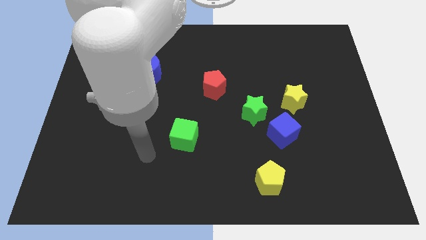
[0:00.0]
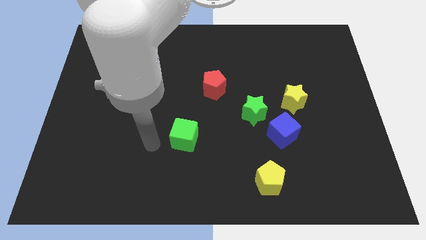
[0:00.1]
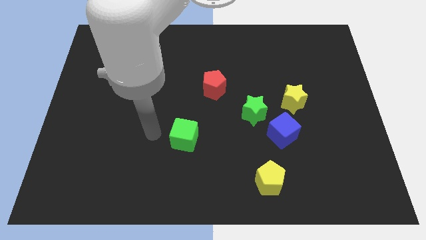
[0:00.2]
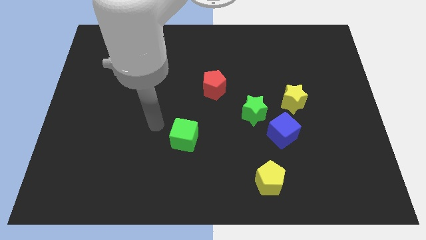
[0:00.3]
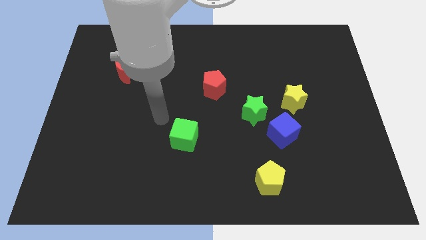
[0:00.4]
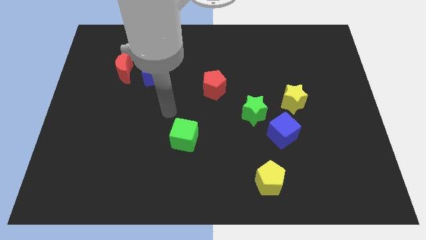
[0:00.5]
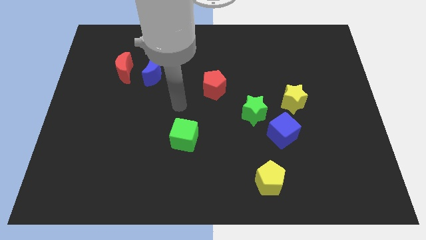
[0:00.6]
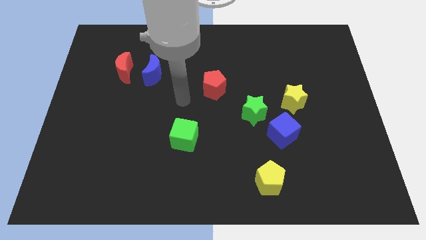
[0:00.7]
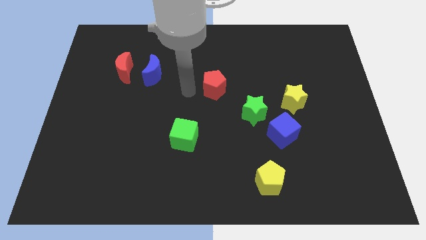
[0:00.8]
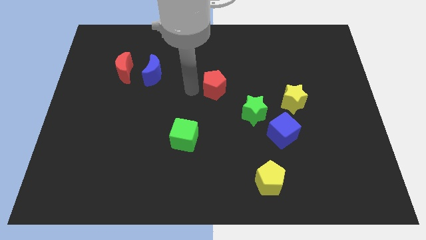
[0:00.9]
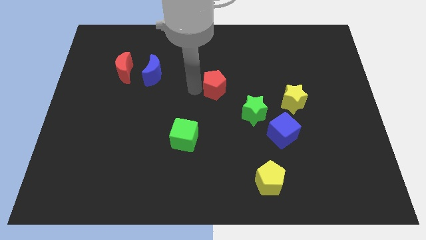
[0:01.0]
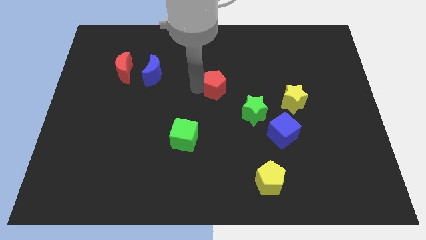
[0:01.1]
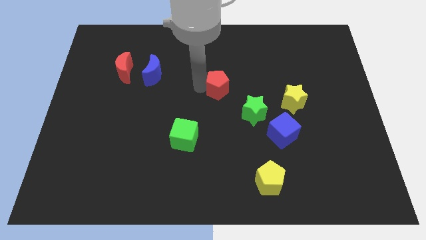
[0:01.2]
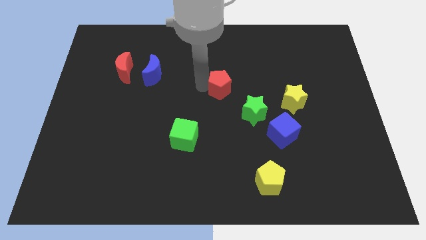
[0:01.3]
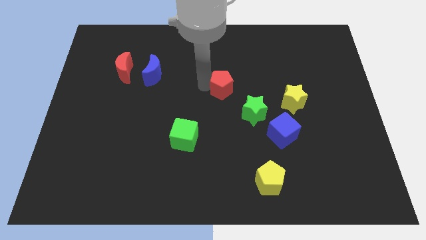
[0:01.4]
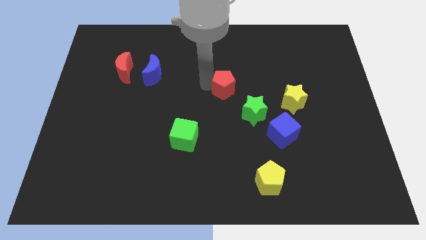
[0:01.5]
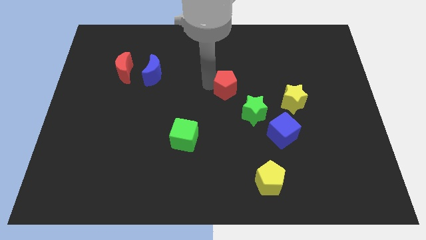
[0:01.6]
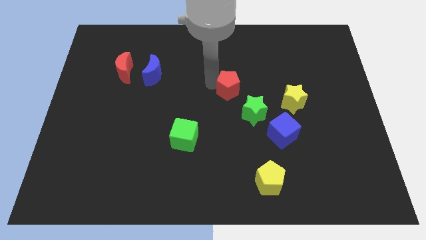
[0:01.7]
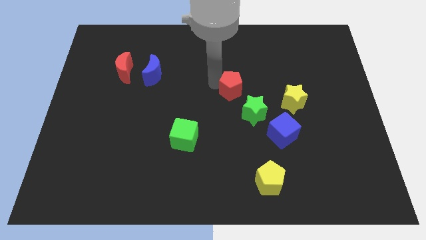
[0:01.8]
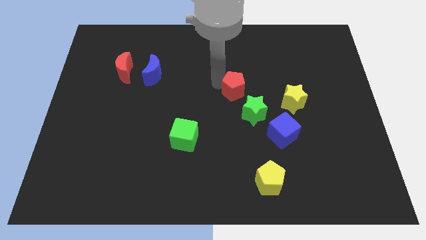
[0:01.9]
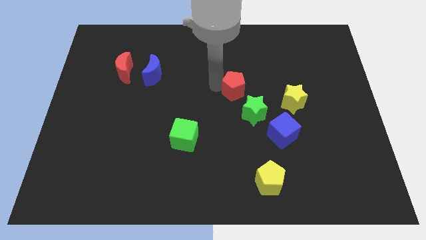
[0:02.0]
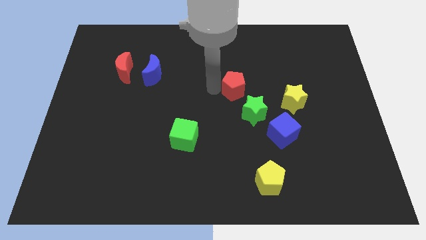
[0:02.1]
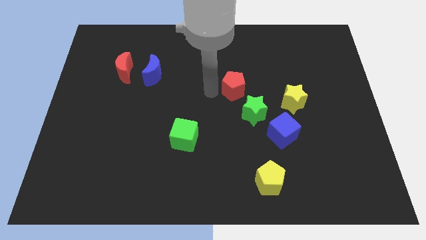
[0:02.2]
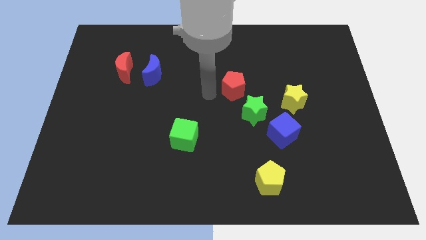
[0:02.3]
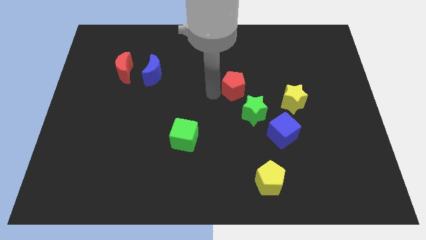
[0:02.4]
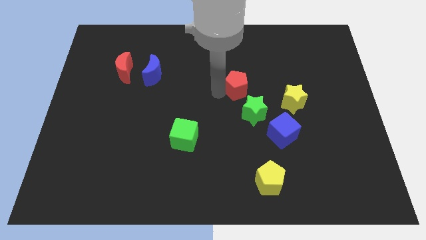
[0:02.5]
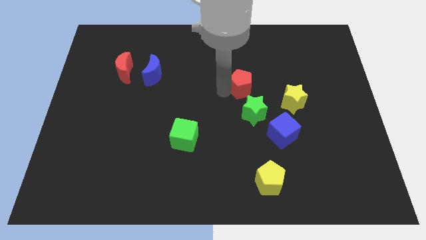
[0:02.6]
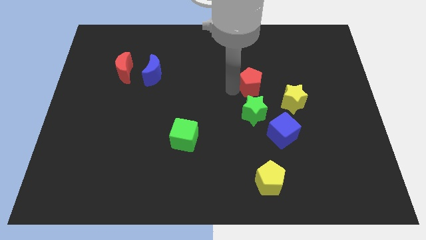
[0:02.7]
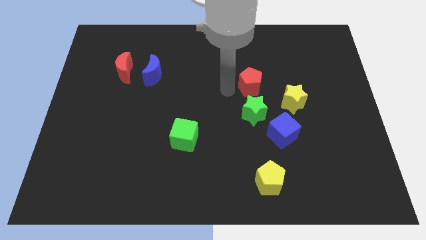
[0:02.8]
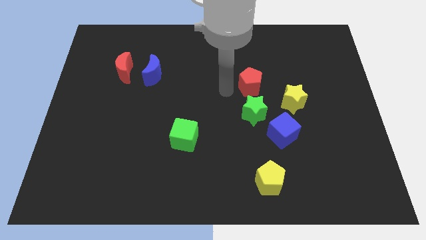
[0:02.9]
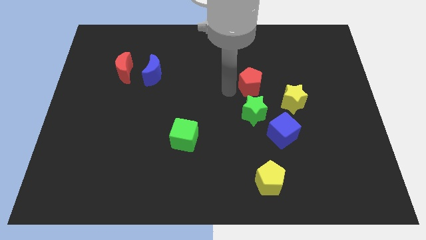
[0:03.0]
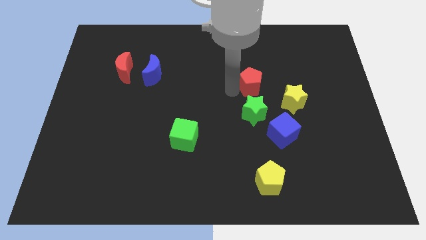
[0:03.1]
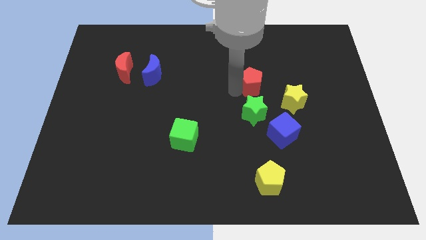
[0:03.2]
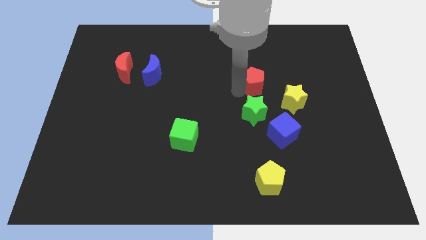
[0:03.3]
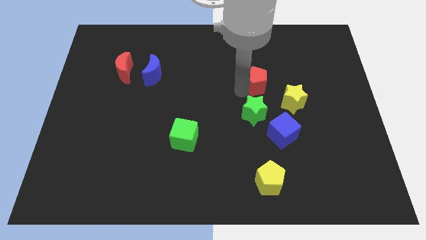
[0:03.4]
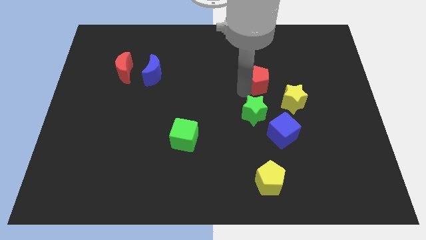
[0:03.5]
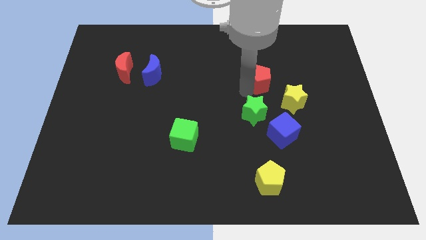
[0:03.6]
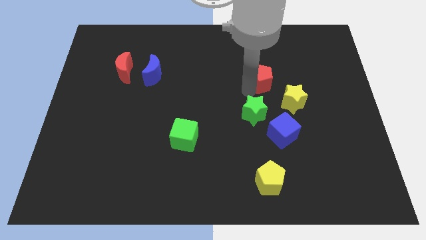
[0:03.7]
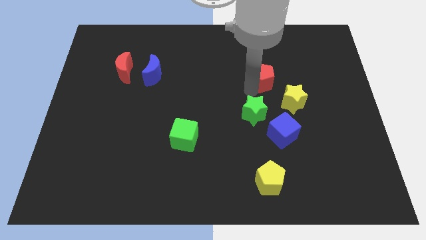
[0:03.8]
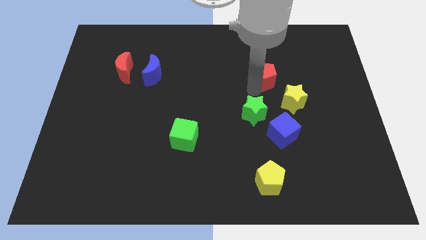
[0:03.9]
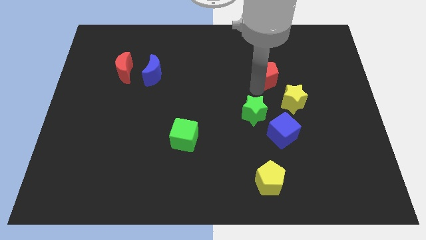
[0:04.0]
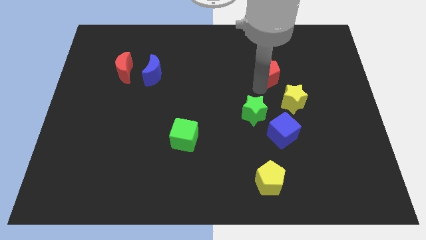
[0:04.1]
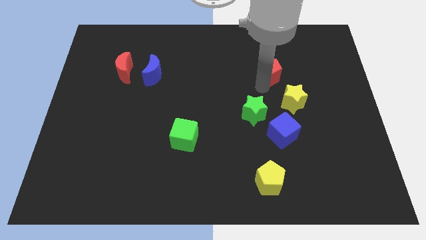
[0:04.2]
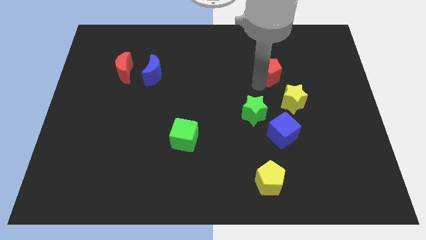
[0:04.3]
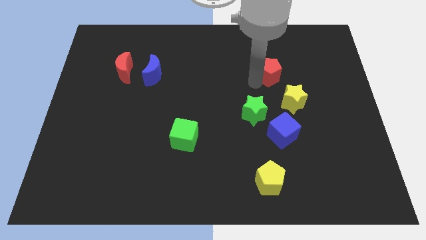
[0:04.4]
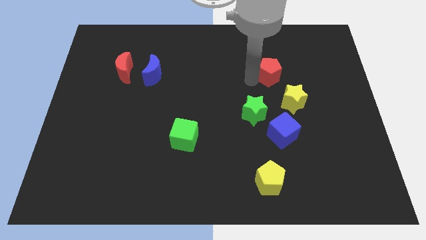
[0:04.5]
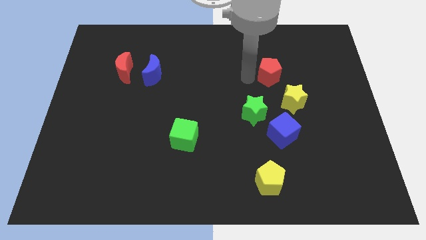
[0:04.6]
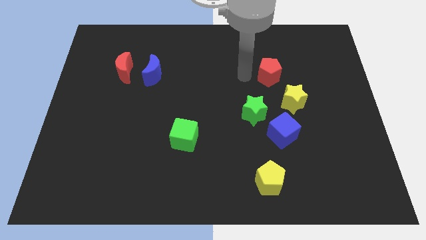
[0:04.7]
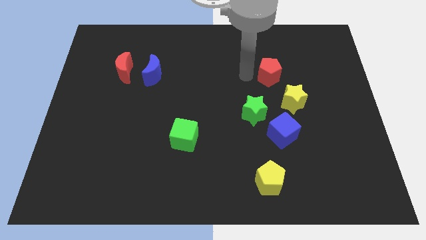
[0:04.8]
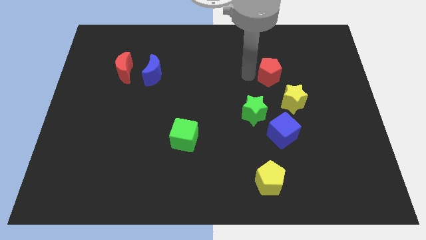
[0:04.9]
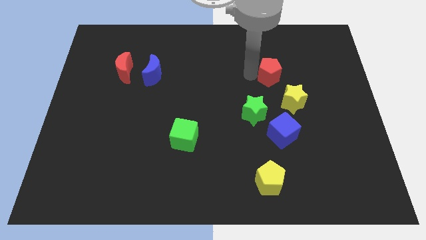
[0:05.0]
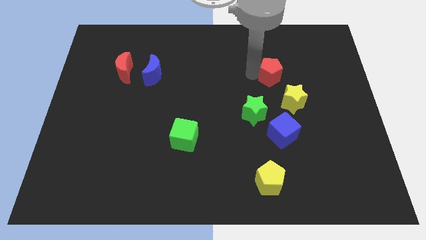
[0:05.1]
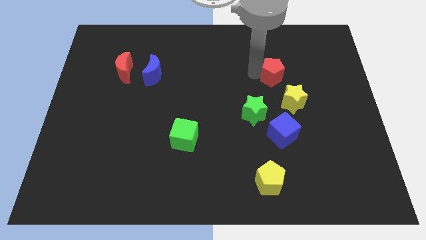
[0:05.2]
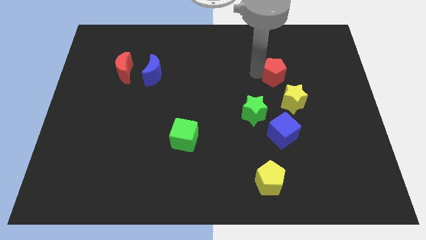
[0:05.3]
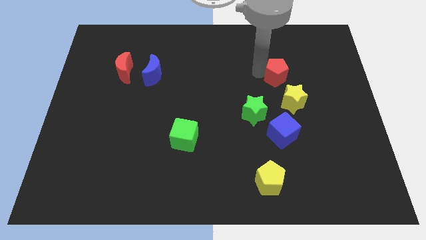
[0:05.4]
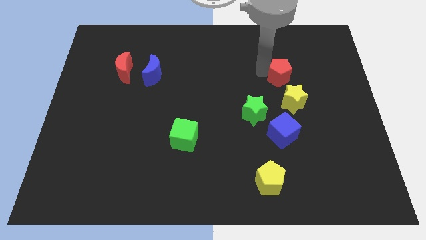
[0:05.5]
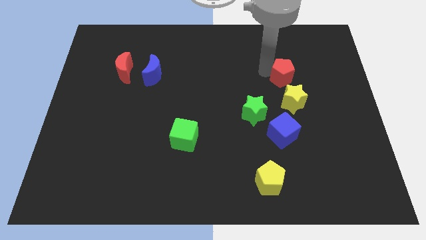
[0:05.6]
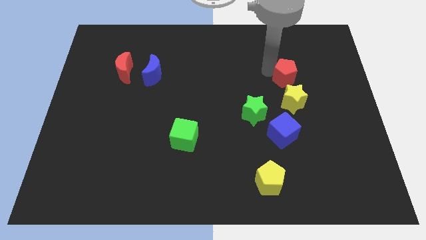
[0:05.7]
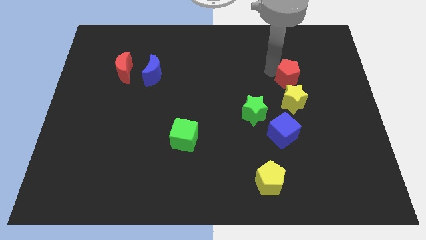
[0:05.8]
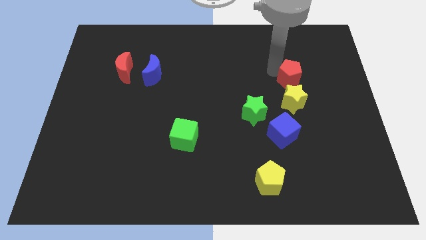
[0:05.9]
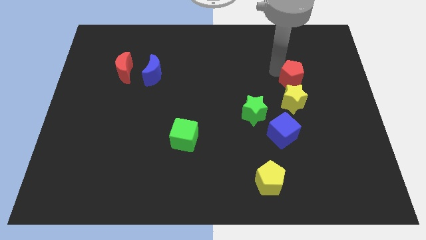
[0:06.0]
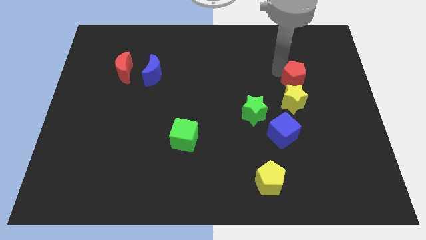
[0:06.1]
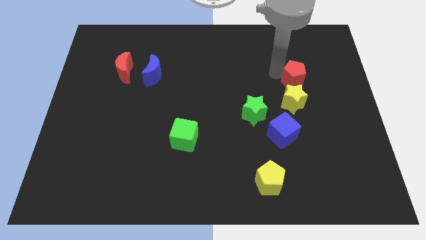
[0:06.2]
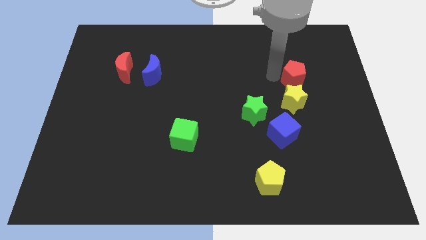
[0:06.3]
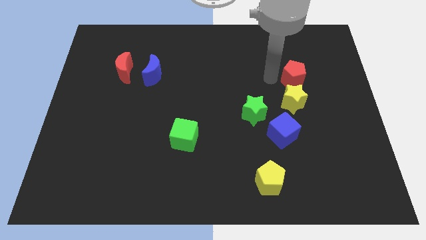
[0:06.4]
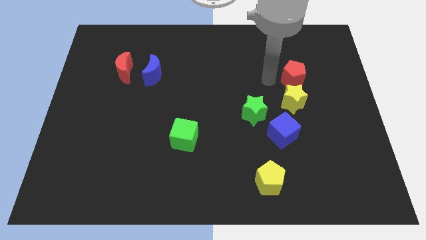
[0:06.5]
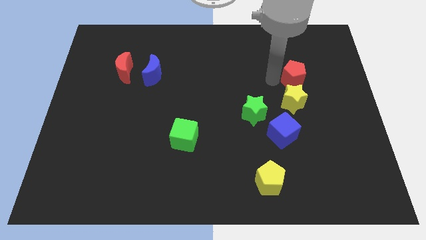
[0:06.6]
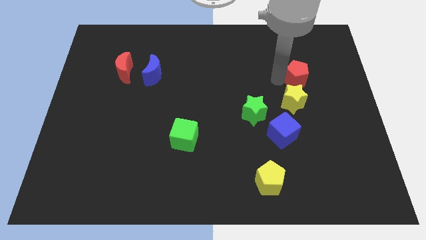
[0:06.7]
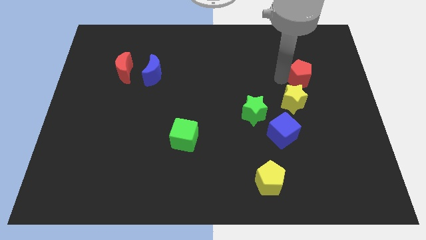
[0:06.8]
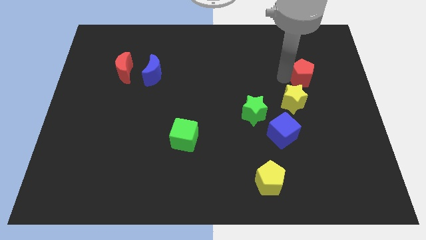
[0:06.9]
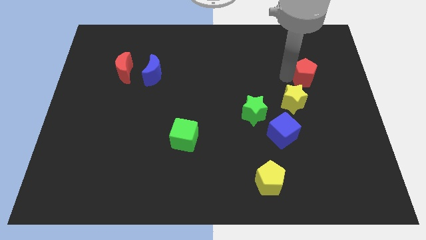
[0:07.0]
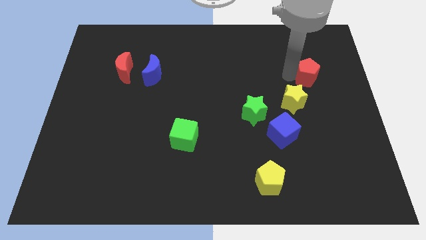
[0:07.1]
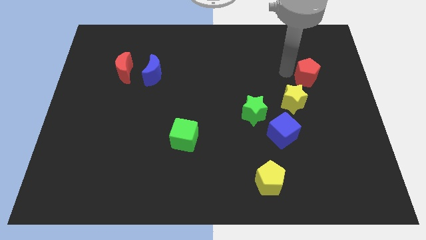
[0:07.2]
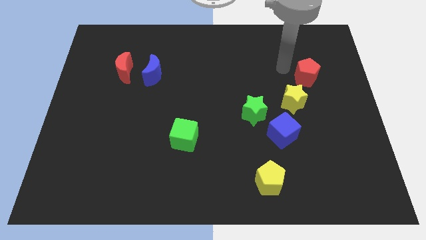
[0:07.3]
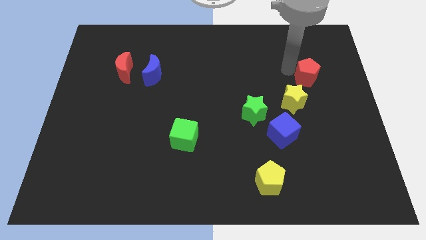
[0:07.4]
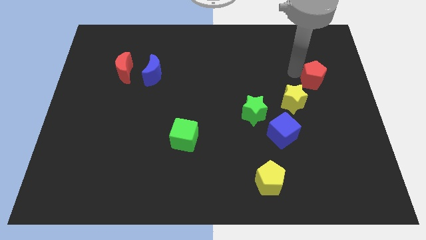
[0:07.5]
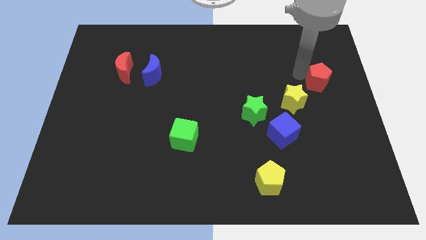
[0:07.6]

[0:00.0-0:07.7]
push the red pentagon to the right side of the board
